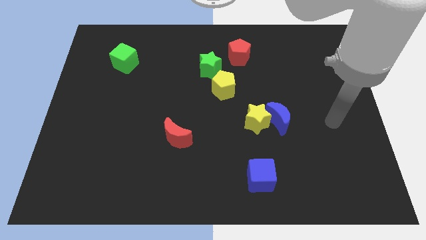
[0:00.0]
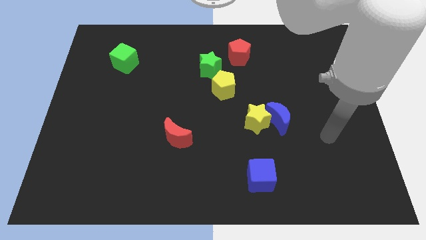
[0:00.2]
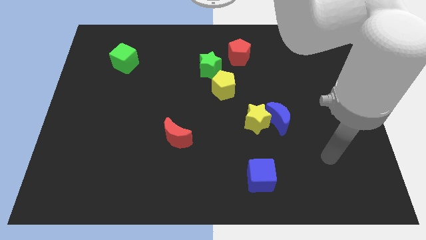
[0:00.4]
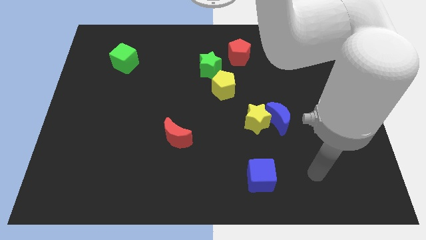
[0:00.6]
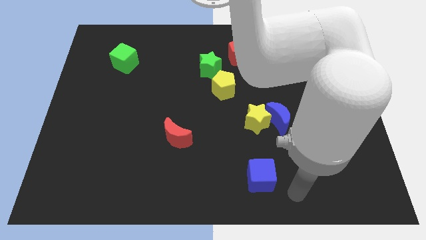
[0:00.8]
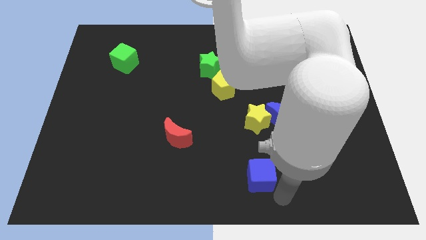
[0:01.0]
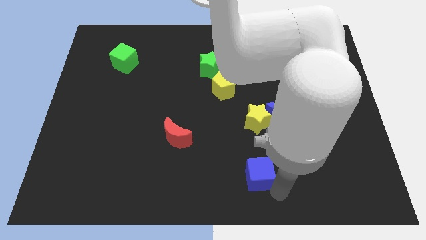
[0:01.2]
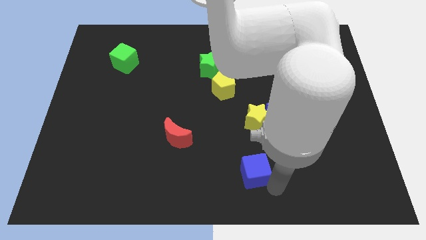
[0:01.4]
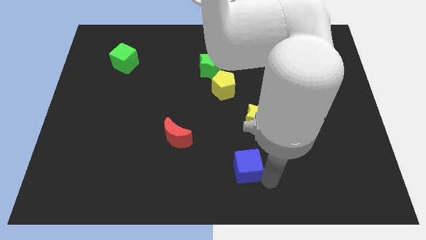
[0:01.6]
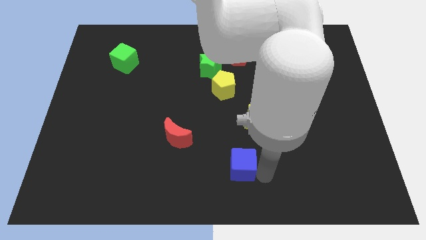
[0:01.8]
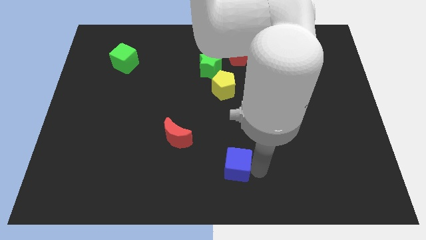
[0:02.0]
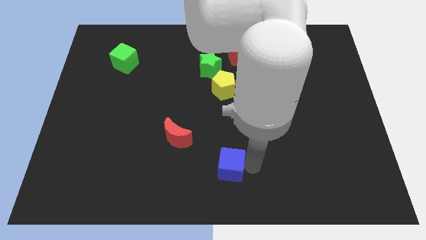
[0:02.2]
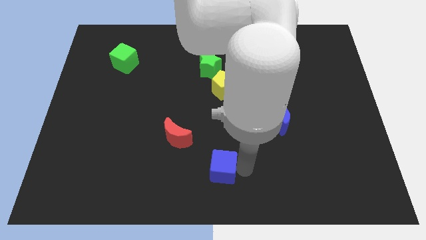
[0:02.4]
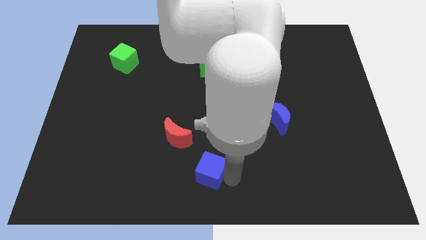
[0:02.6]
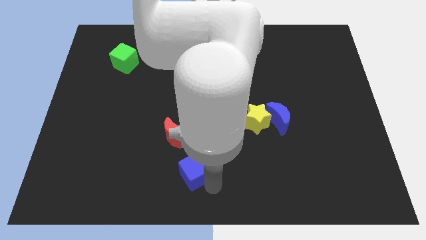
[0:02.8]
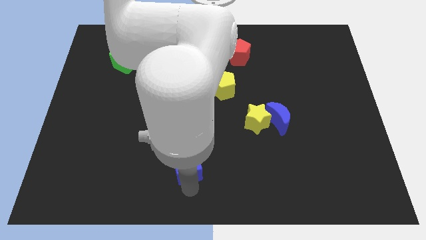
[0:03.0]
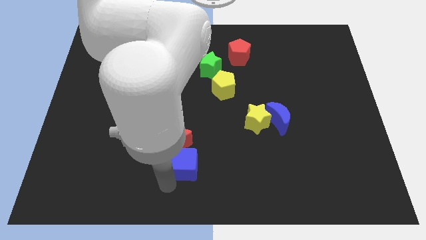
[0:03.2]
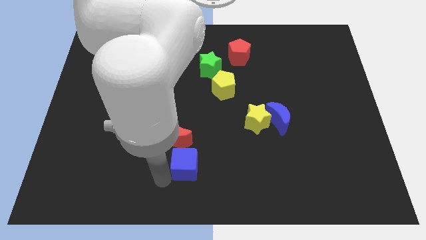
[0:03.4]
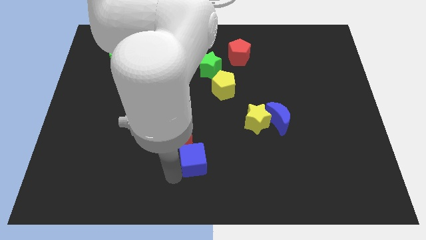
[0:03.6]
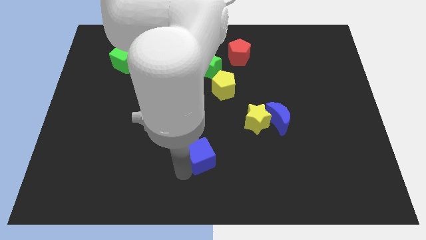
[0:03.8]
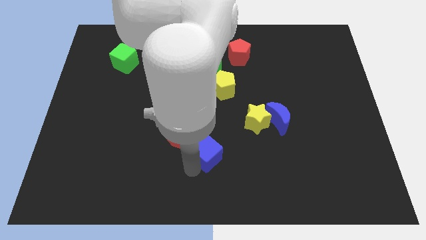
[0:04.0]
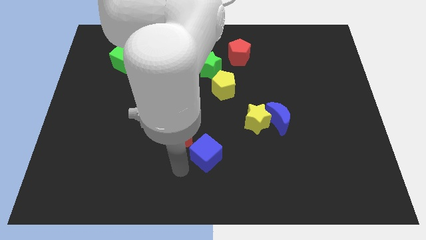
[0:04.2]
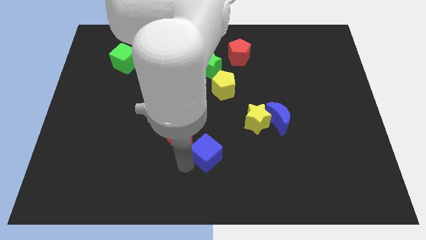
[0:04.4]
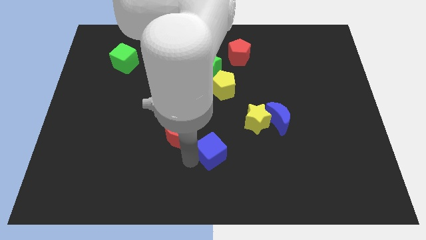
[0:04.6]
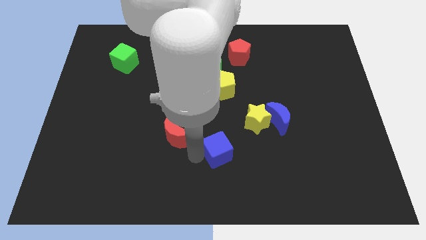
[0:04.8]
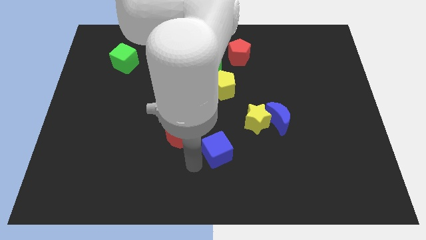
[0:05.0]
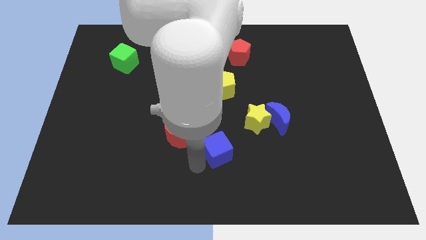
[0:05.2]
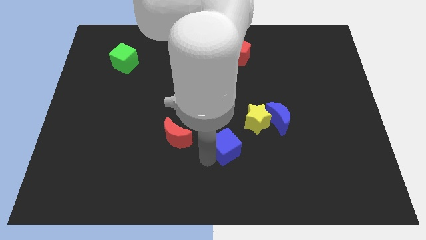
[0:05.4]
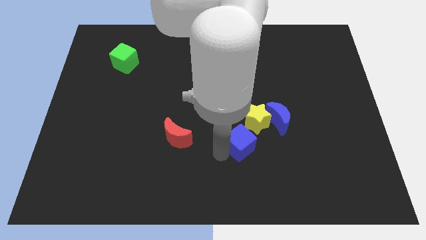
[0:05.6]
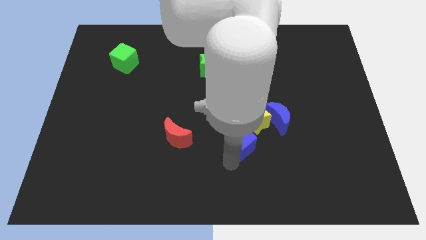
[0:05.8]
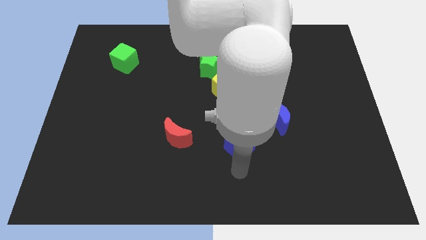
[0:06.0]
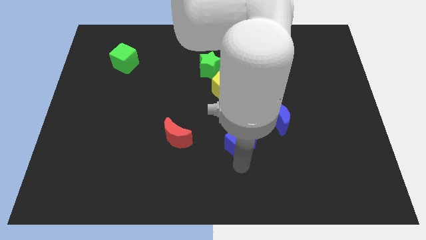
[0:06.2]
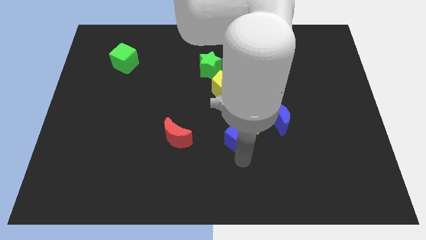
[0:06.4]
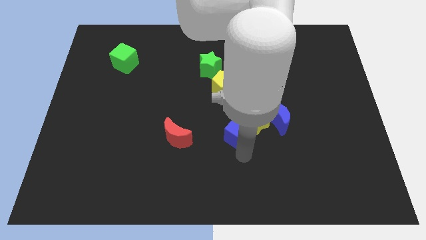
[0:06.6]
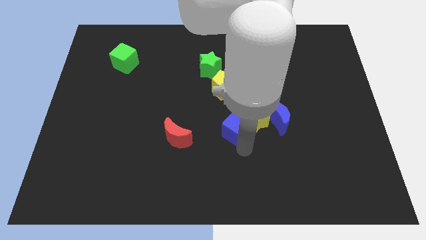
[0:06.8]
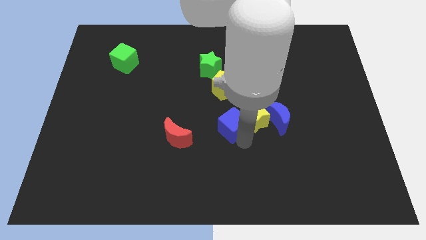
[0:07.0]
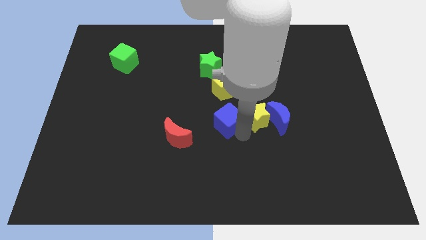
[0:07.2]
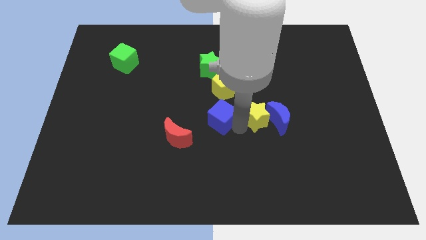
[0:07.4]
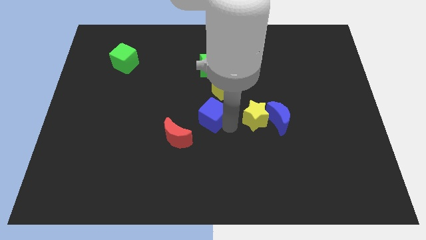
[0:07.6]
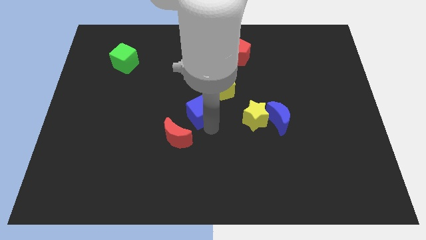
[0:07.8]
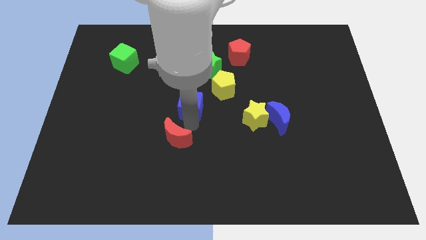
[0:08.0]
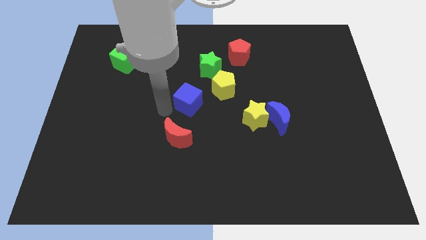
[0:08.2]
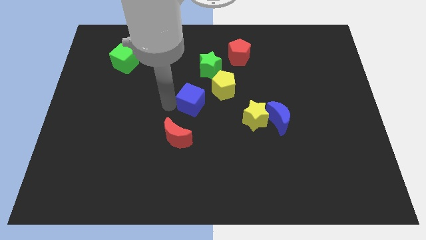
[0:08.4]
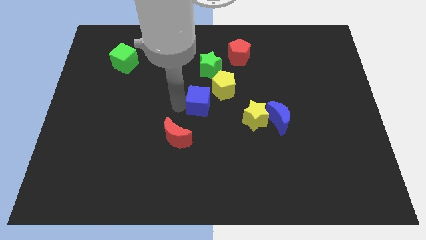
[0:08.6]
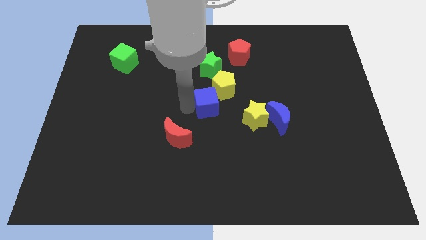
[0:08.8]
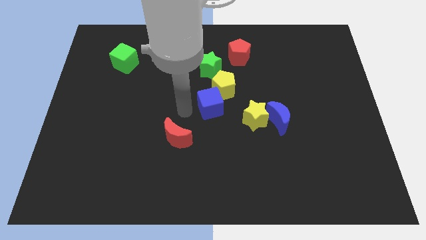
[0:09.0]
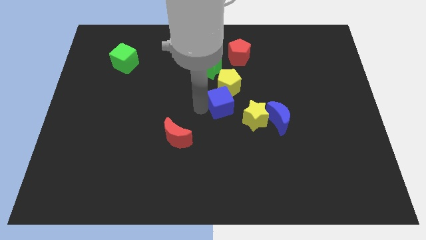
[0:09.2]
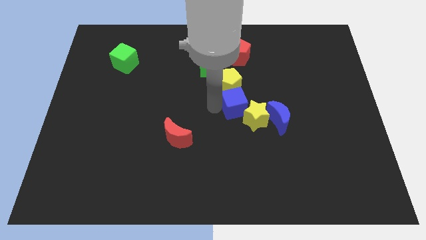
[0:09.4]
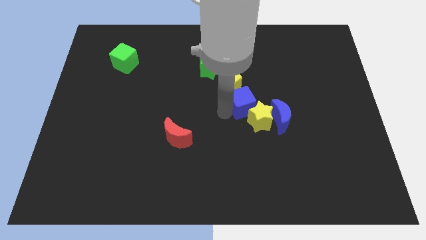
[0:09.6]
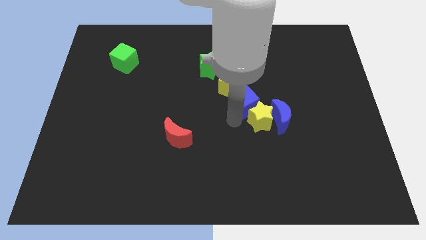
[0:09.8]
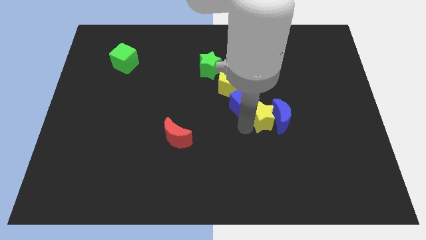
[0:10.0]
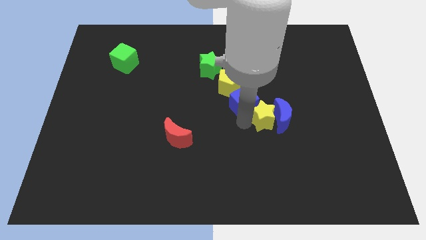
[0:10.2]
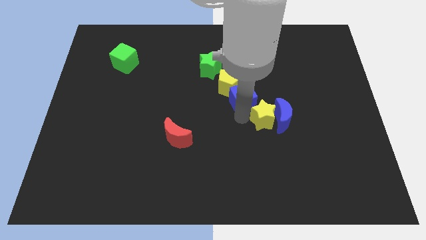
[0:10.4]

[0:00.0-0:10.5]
push the blue cube upwards

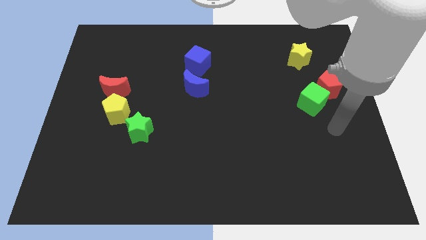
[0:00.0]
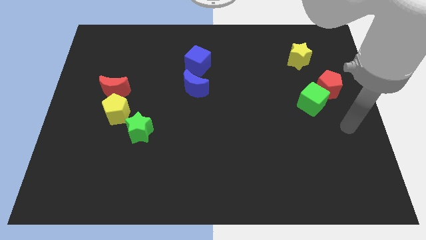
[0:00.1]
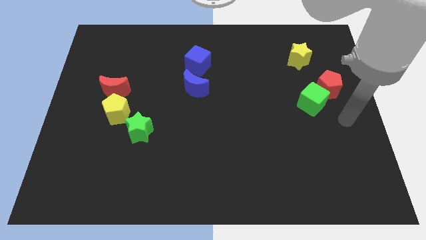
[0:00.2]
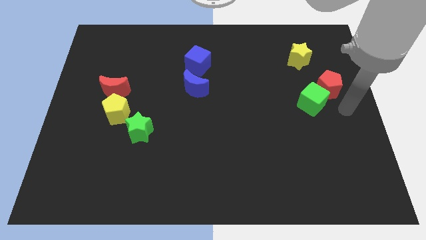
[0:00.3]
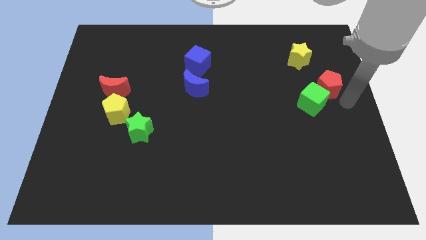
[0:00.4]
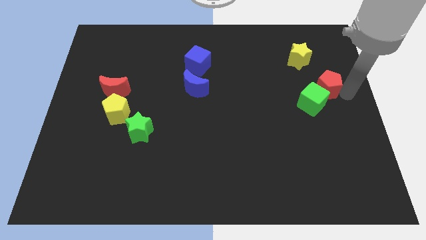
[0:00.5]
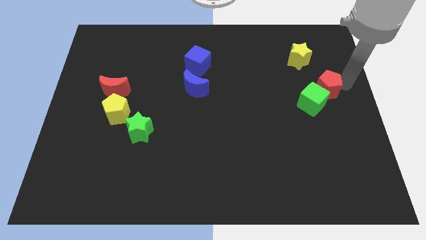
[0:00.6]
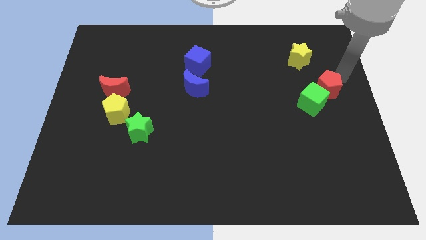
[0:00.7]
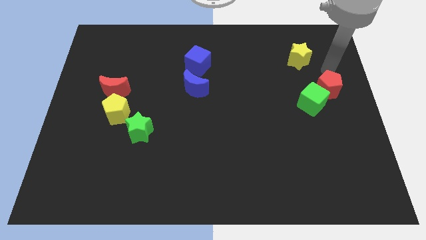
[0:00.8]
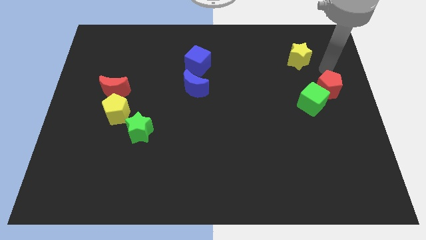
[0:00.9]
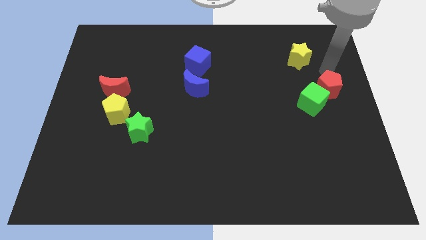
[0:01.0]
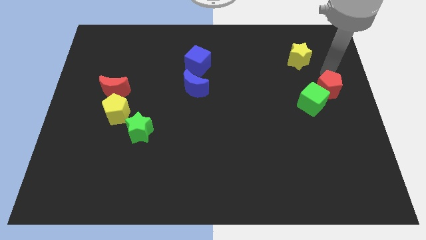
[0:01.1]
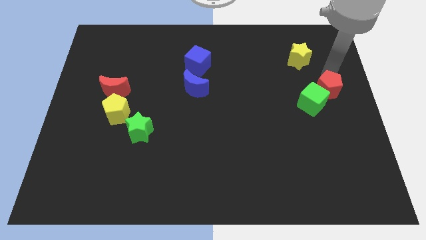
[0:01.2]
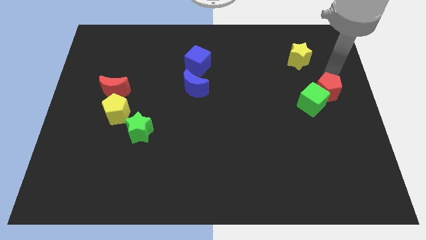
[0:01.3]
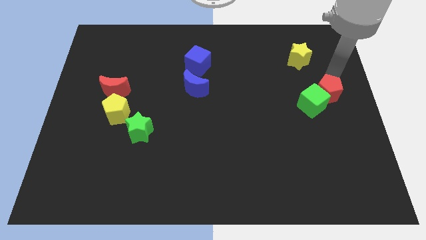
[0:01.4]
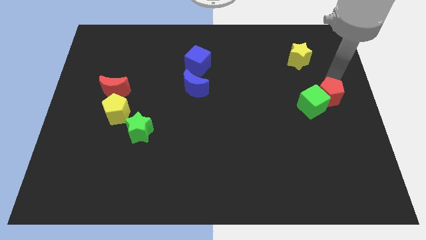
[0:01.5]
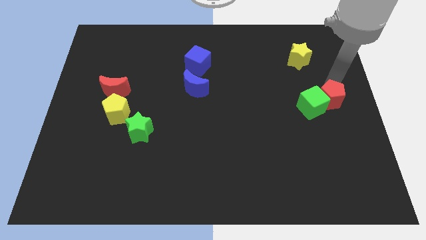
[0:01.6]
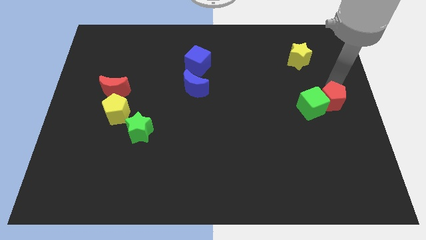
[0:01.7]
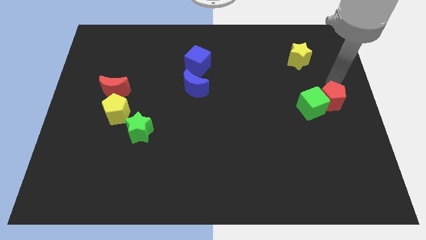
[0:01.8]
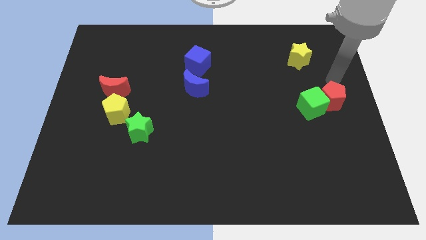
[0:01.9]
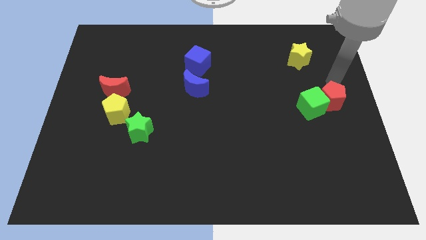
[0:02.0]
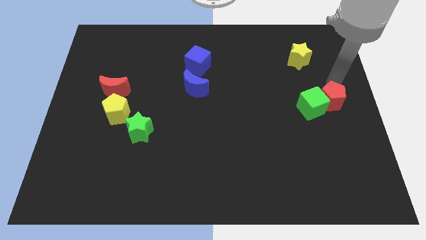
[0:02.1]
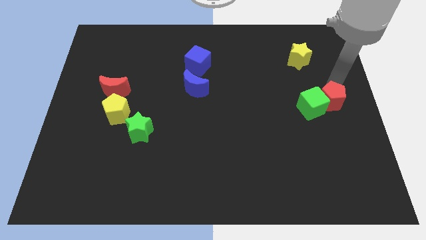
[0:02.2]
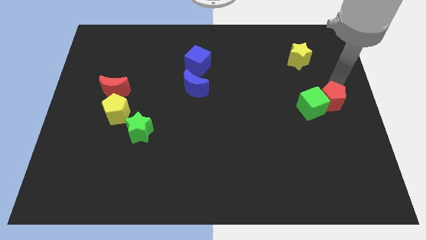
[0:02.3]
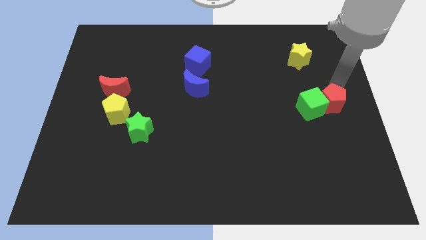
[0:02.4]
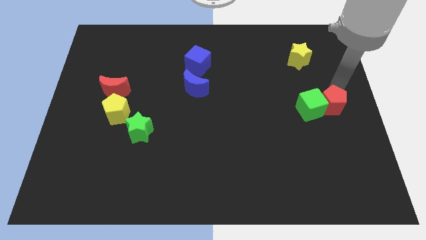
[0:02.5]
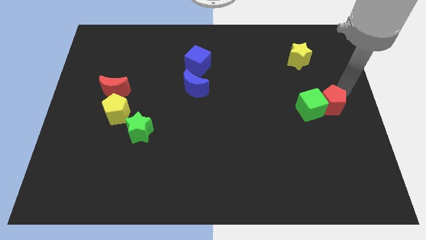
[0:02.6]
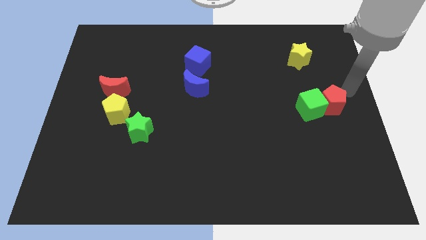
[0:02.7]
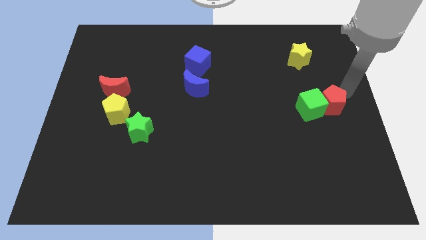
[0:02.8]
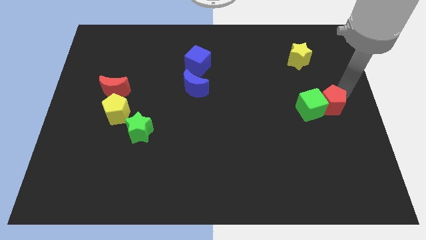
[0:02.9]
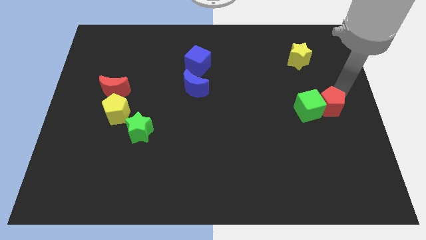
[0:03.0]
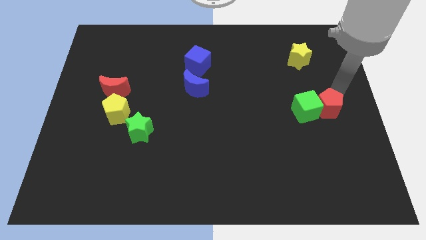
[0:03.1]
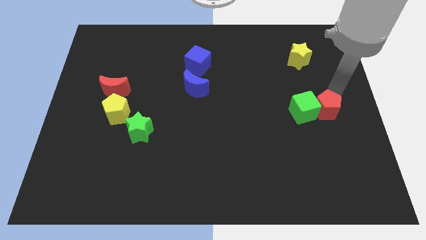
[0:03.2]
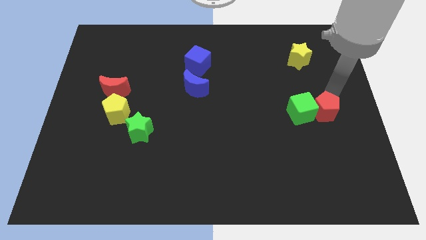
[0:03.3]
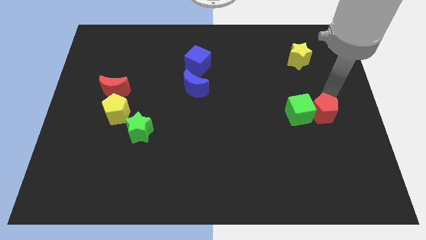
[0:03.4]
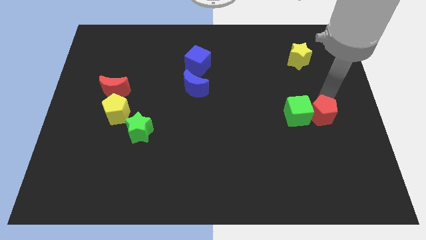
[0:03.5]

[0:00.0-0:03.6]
slide the red pentagon down and to the left diagonally a bit
